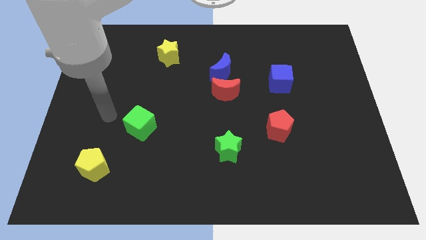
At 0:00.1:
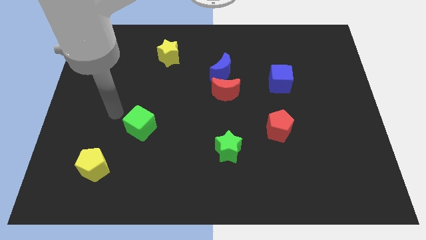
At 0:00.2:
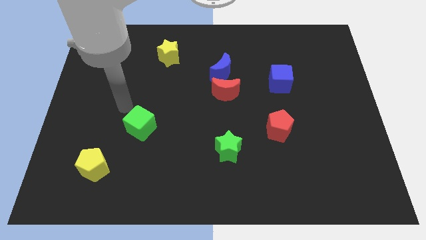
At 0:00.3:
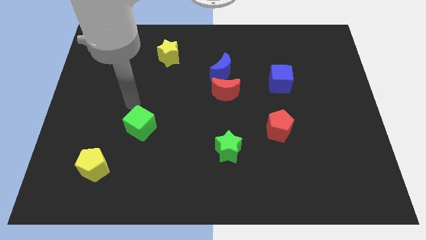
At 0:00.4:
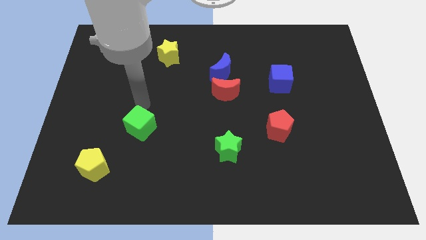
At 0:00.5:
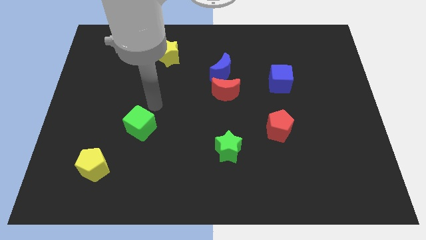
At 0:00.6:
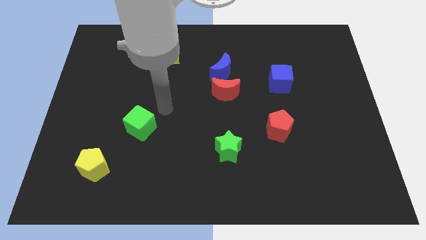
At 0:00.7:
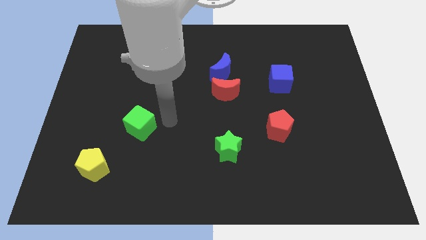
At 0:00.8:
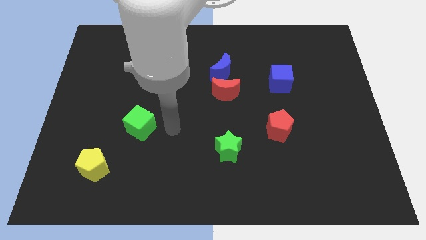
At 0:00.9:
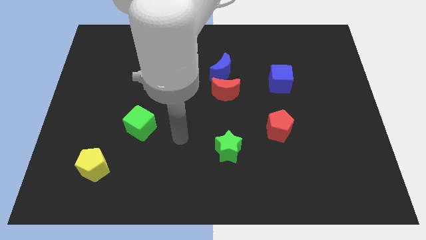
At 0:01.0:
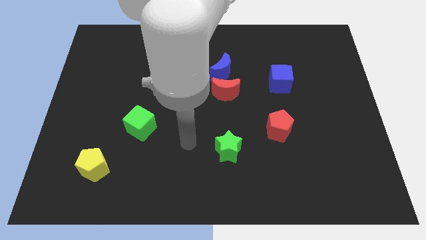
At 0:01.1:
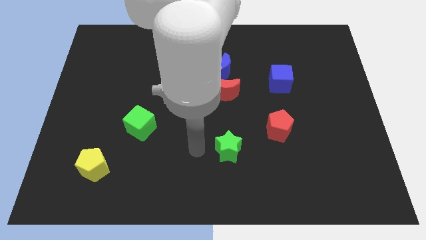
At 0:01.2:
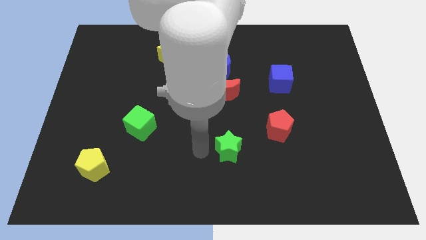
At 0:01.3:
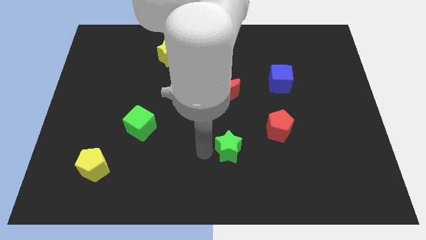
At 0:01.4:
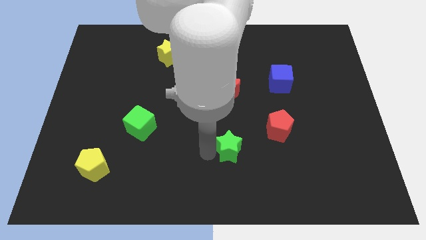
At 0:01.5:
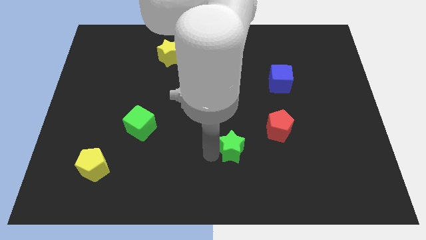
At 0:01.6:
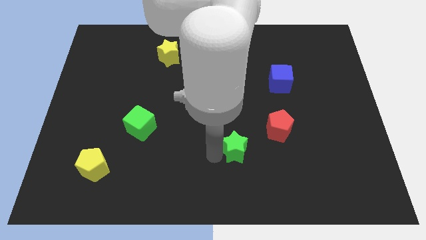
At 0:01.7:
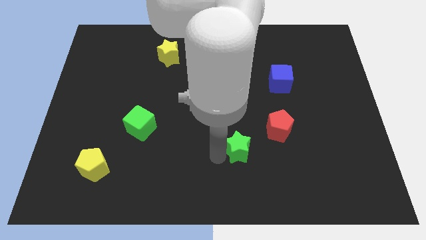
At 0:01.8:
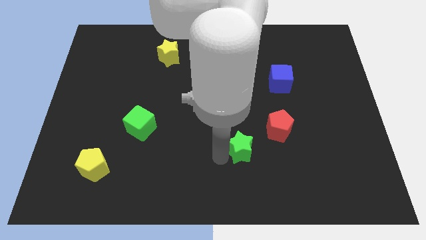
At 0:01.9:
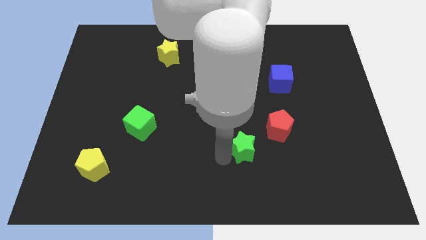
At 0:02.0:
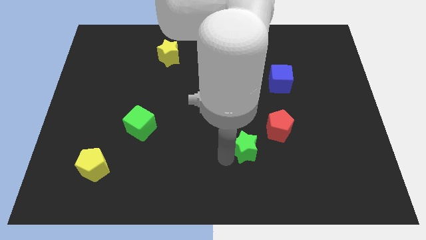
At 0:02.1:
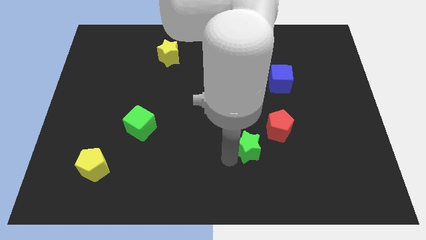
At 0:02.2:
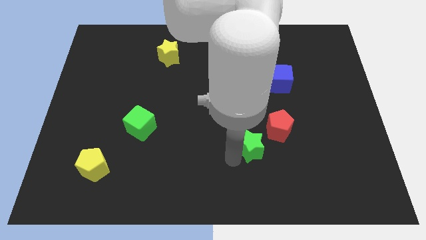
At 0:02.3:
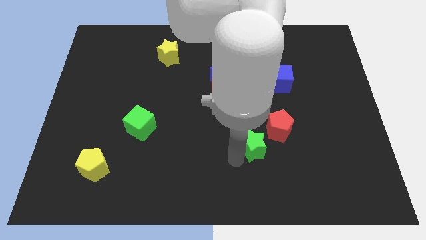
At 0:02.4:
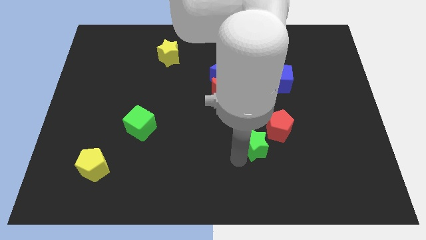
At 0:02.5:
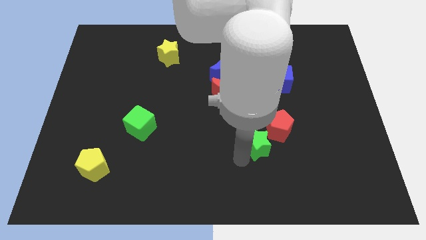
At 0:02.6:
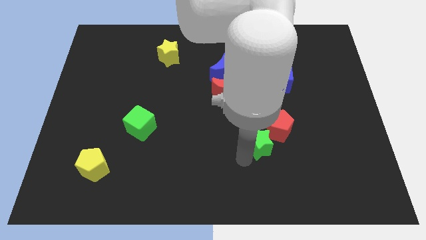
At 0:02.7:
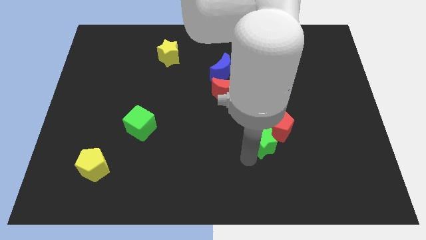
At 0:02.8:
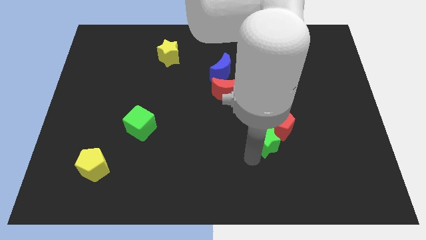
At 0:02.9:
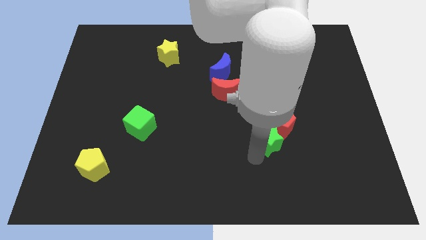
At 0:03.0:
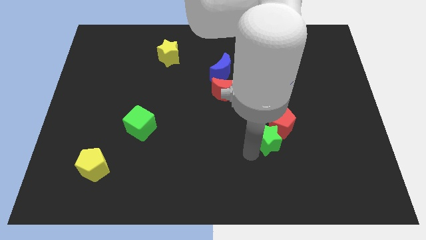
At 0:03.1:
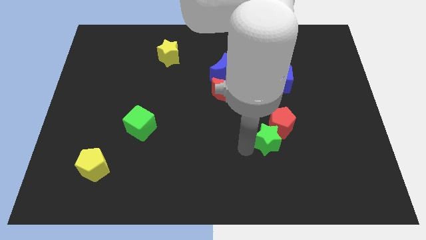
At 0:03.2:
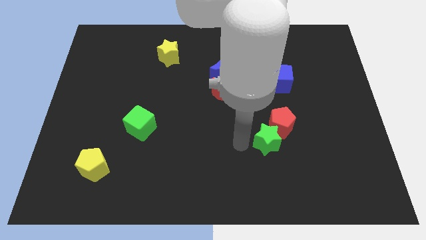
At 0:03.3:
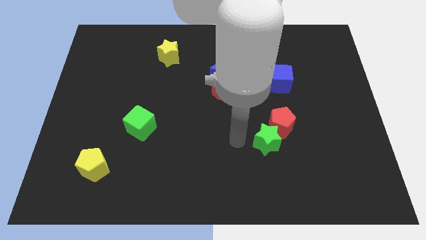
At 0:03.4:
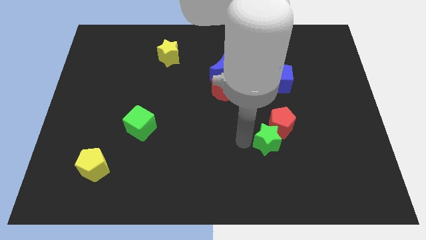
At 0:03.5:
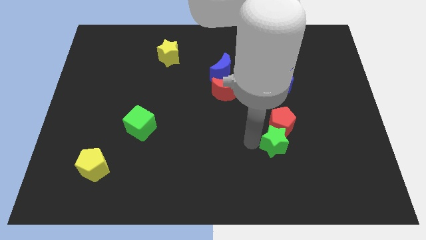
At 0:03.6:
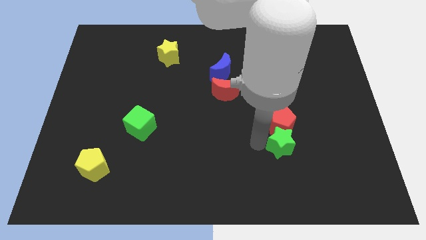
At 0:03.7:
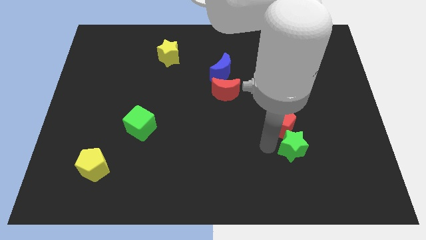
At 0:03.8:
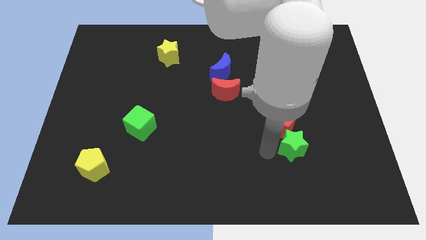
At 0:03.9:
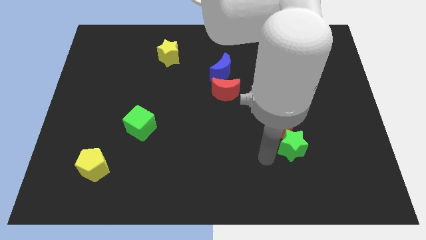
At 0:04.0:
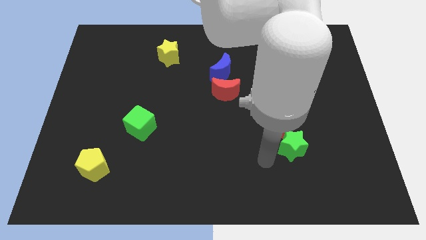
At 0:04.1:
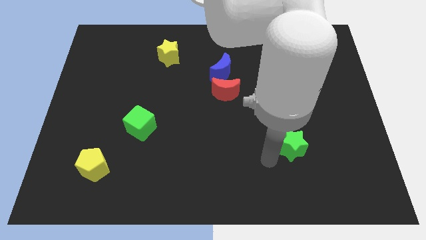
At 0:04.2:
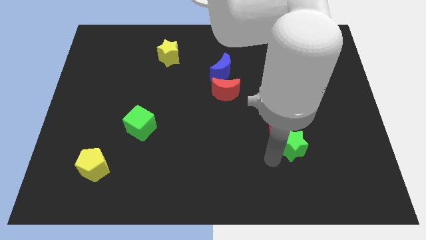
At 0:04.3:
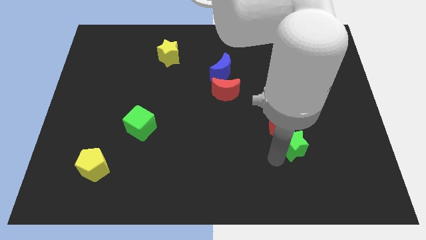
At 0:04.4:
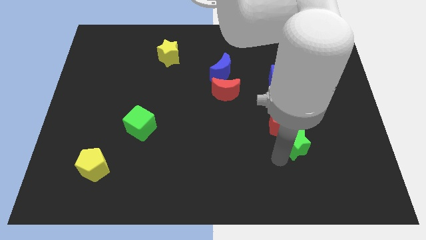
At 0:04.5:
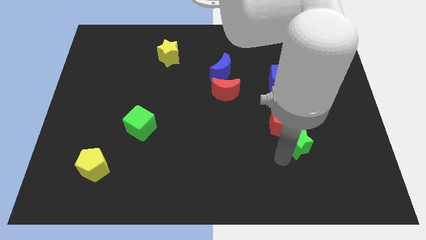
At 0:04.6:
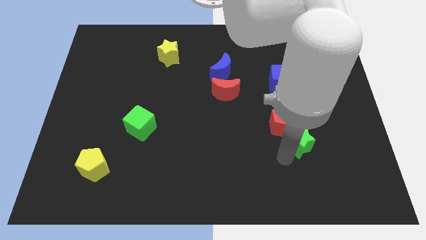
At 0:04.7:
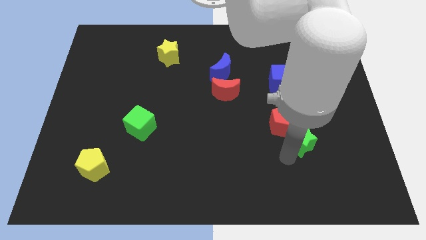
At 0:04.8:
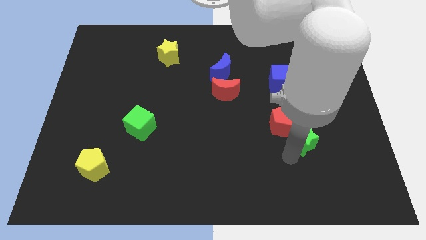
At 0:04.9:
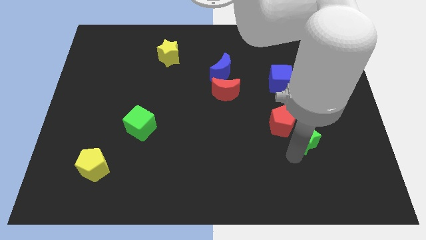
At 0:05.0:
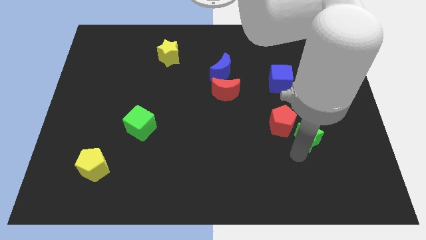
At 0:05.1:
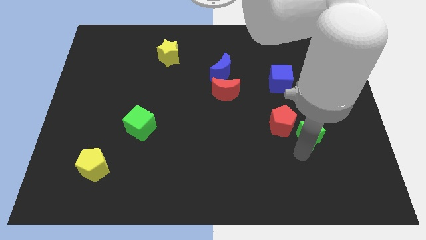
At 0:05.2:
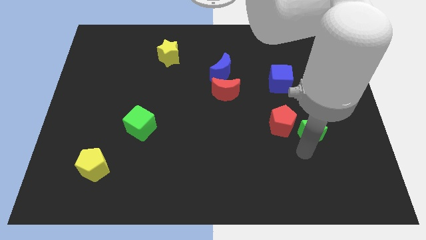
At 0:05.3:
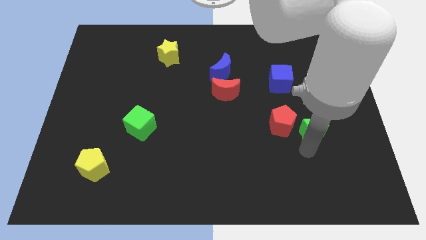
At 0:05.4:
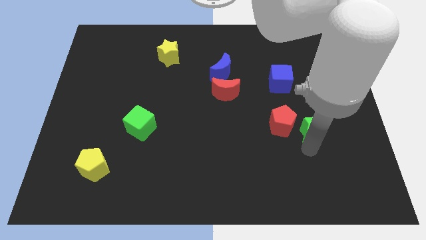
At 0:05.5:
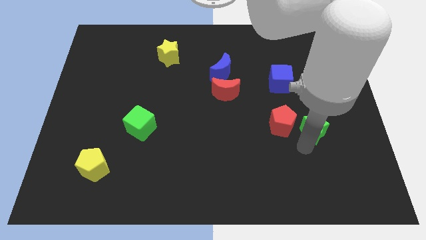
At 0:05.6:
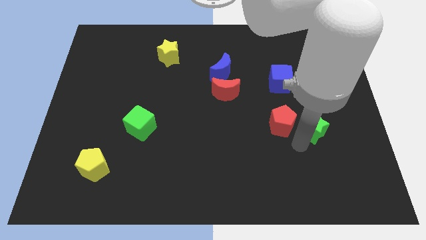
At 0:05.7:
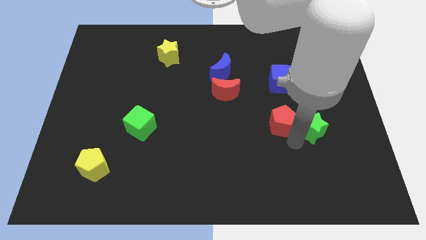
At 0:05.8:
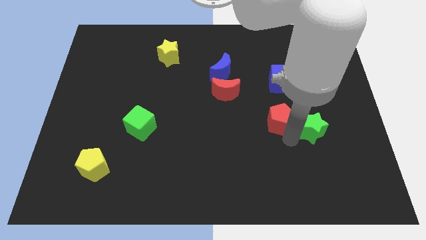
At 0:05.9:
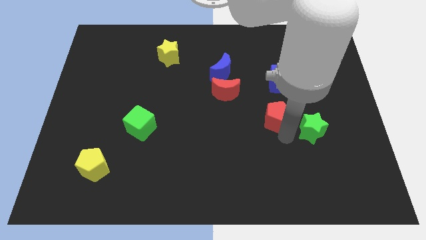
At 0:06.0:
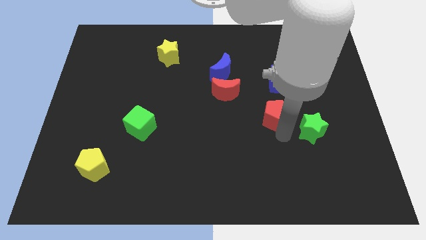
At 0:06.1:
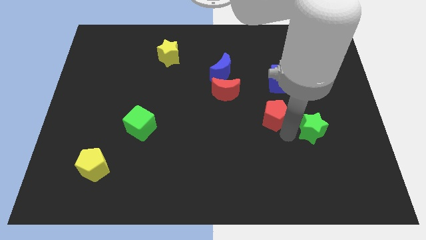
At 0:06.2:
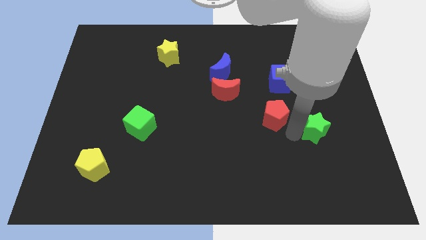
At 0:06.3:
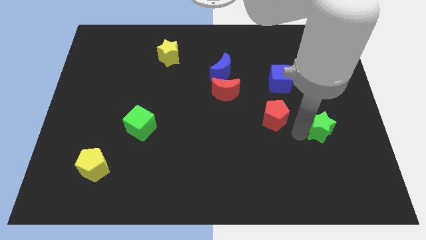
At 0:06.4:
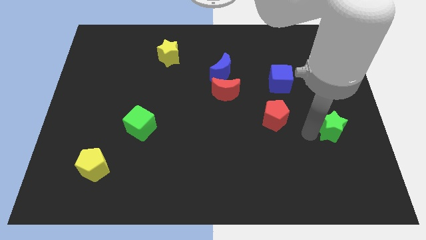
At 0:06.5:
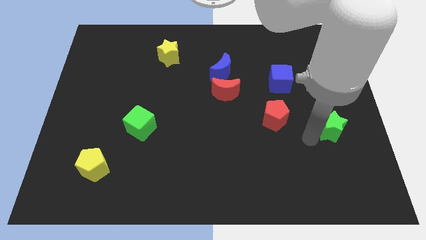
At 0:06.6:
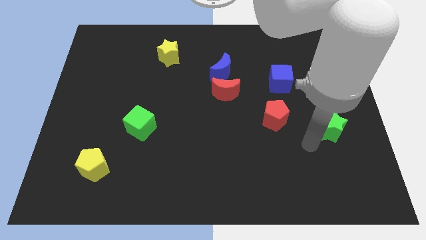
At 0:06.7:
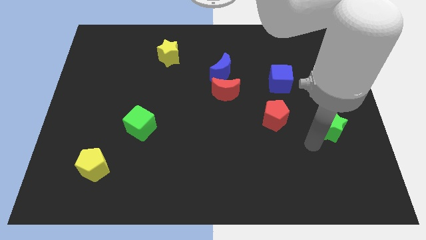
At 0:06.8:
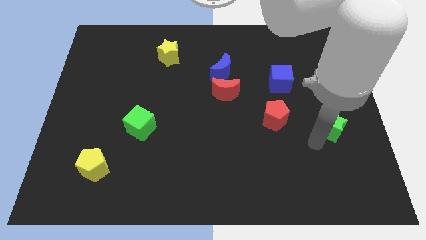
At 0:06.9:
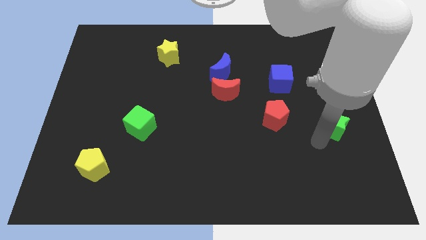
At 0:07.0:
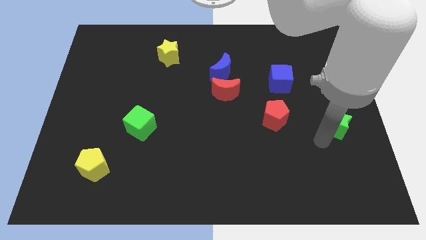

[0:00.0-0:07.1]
put the green star to the right side of the board

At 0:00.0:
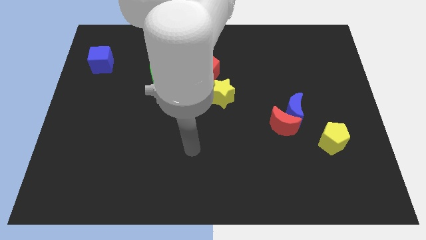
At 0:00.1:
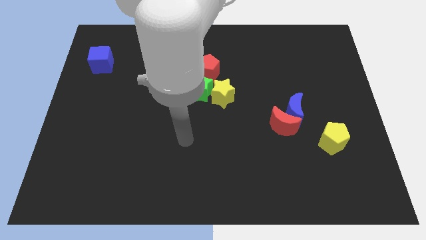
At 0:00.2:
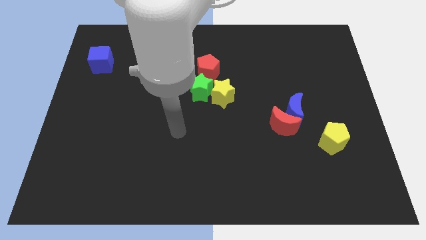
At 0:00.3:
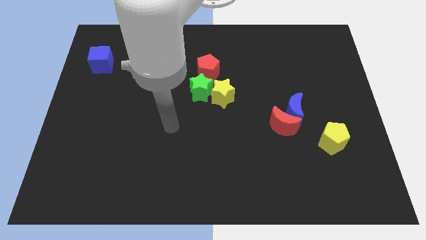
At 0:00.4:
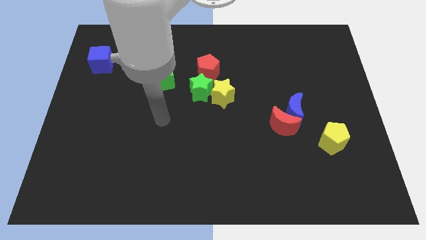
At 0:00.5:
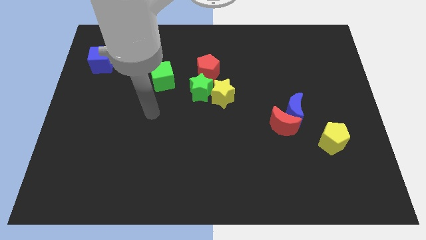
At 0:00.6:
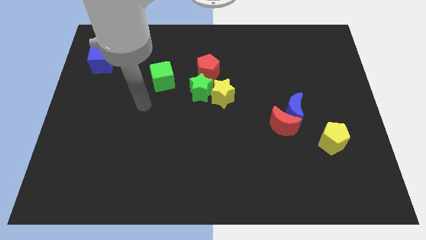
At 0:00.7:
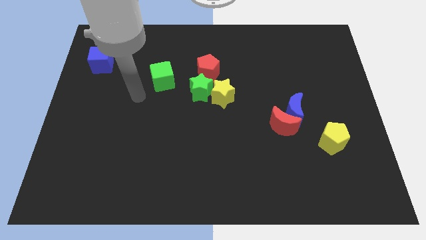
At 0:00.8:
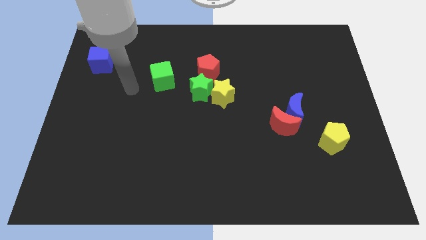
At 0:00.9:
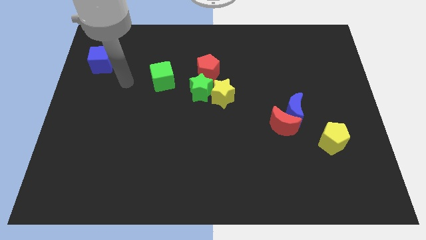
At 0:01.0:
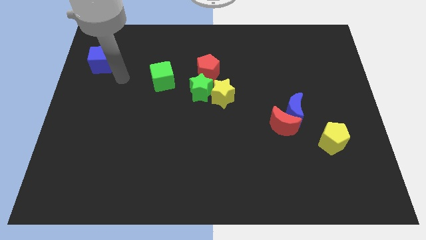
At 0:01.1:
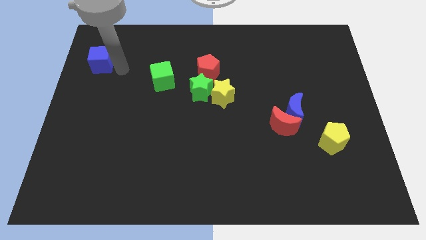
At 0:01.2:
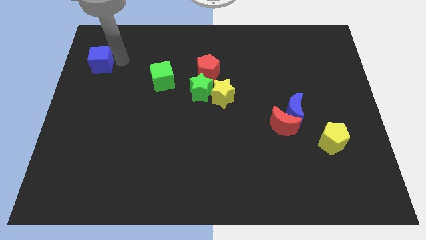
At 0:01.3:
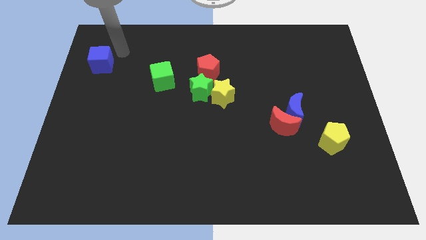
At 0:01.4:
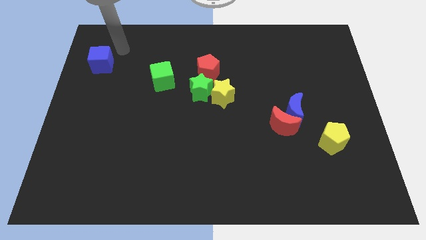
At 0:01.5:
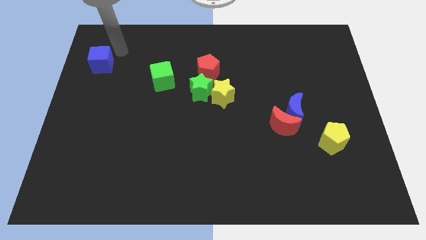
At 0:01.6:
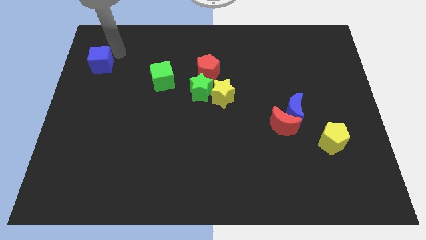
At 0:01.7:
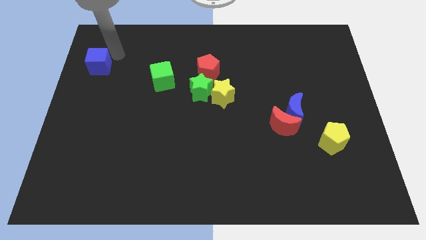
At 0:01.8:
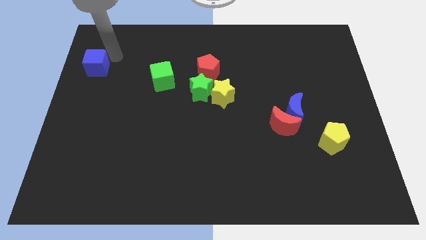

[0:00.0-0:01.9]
push the blue cube to the left side of the board
